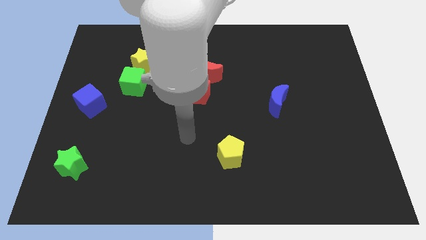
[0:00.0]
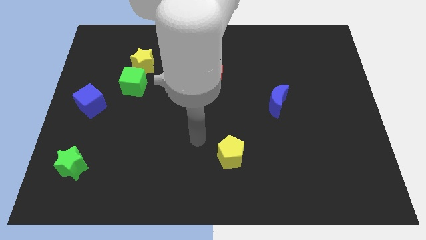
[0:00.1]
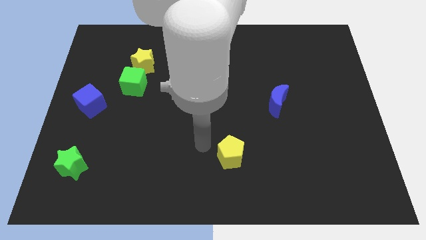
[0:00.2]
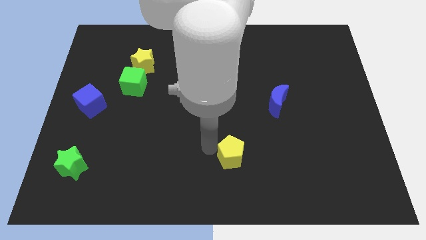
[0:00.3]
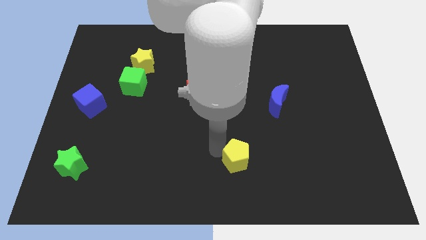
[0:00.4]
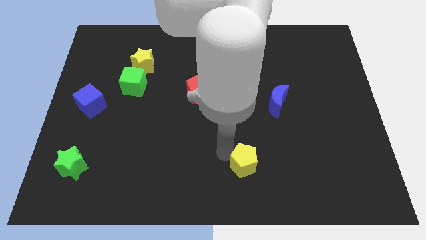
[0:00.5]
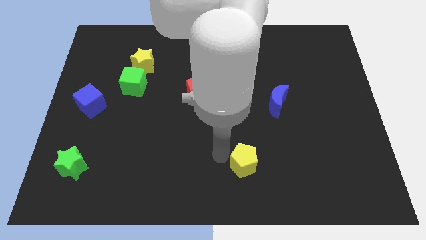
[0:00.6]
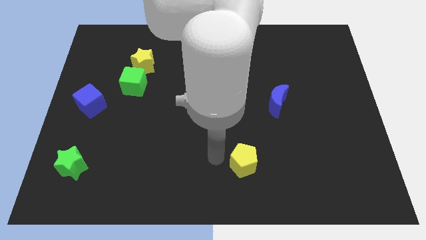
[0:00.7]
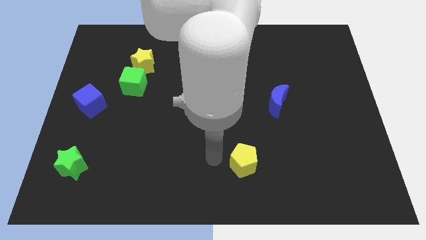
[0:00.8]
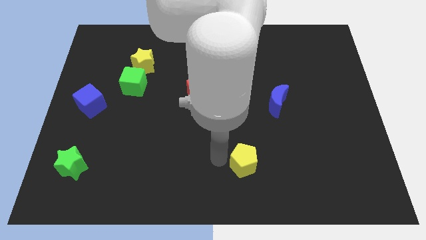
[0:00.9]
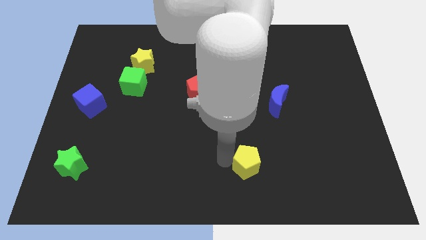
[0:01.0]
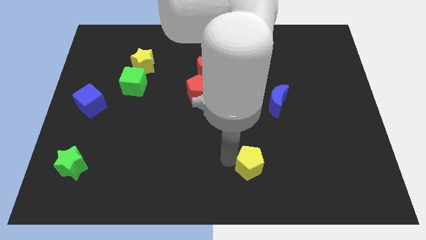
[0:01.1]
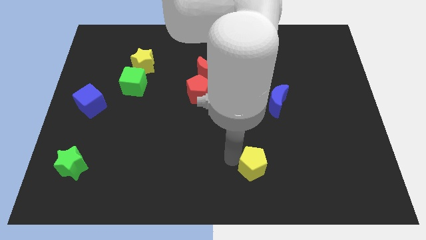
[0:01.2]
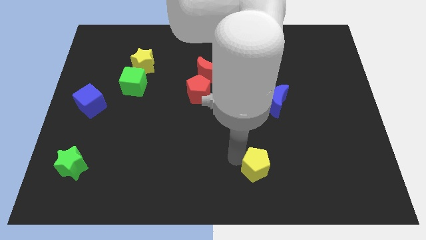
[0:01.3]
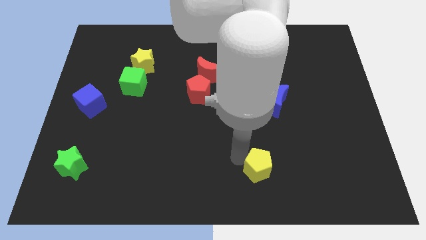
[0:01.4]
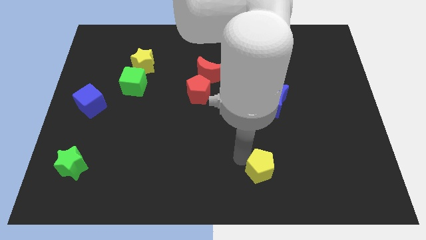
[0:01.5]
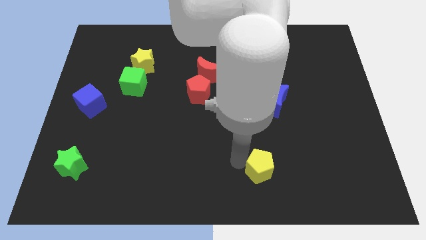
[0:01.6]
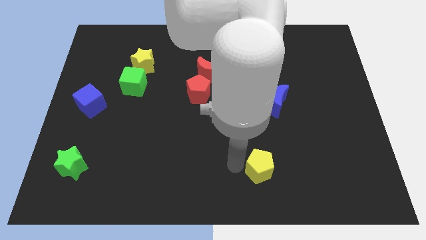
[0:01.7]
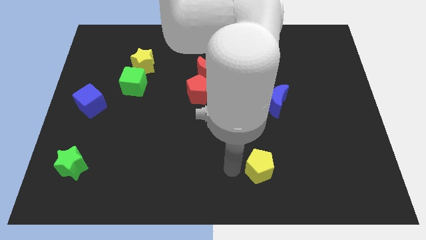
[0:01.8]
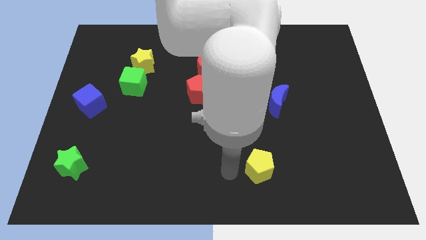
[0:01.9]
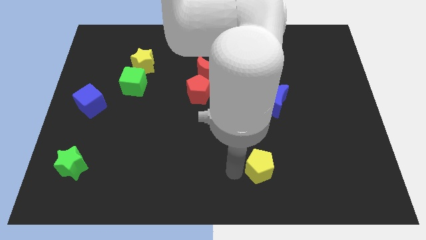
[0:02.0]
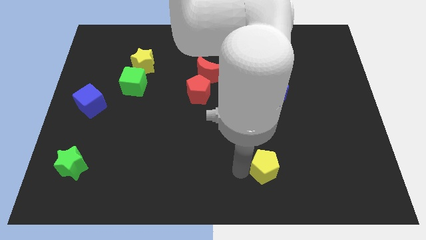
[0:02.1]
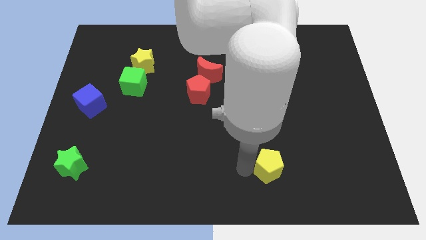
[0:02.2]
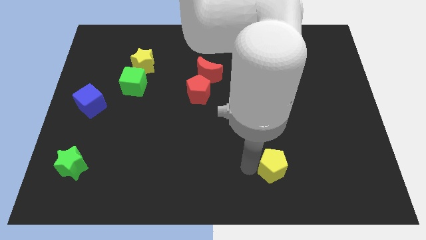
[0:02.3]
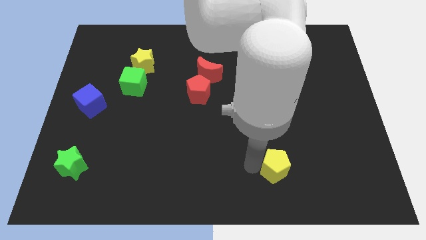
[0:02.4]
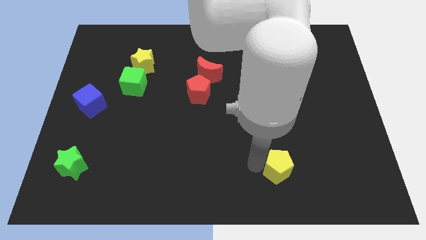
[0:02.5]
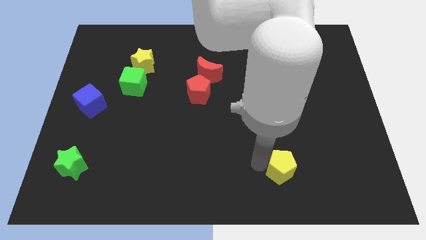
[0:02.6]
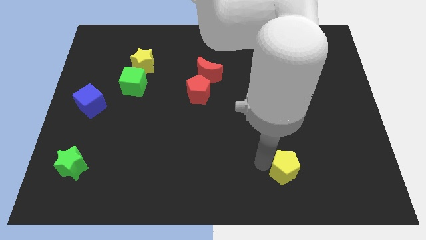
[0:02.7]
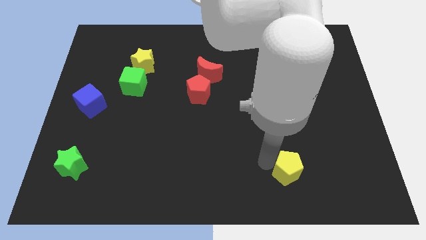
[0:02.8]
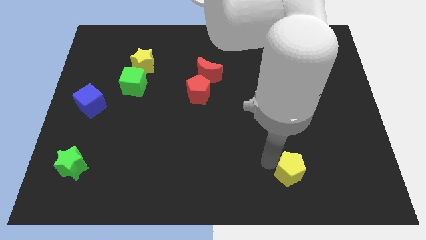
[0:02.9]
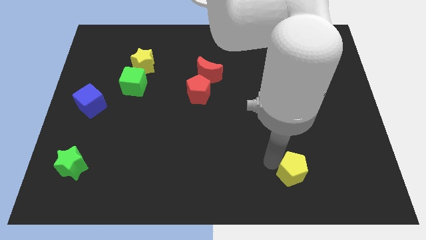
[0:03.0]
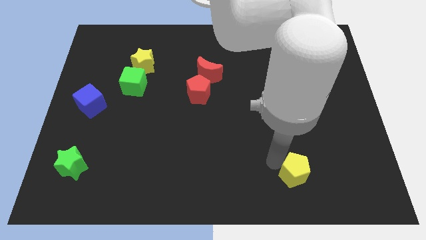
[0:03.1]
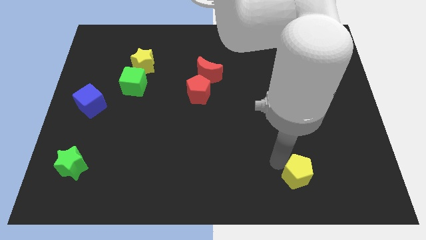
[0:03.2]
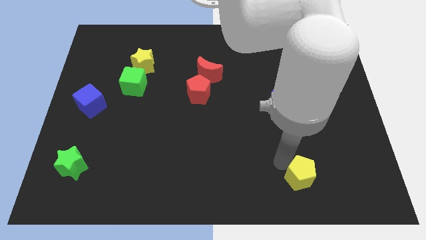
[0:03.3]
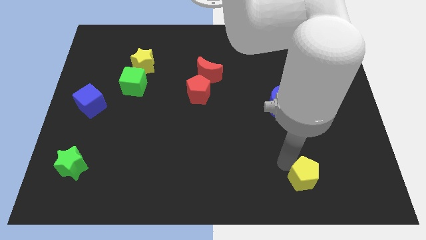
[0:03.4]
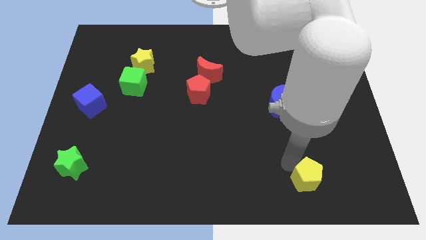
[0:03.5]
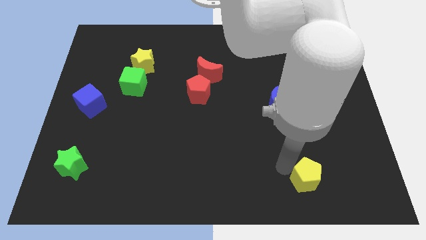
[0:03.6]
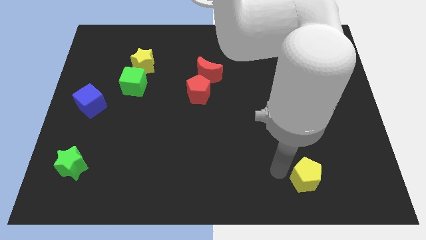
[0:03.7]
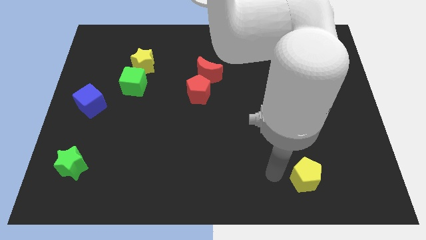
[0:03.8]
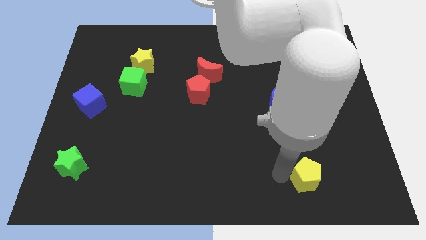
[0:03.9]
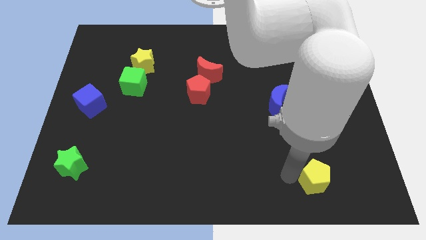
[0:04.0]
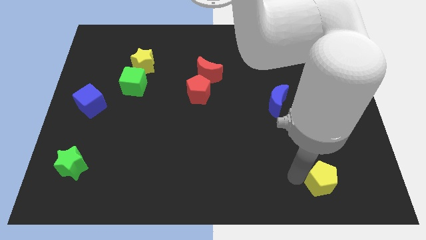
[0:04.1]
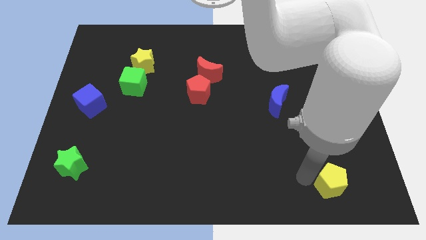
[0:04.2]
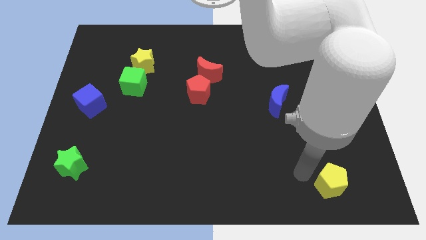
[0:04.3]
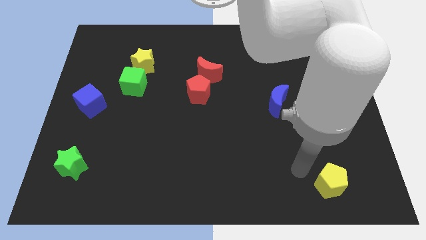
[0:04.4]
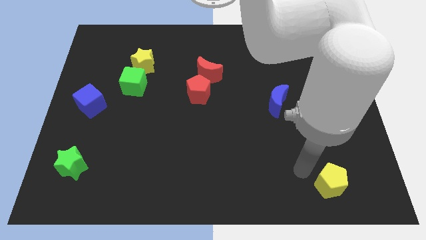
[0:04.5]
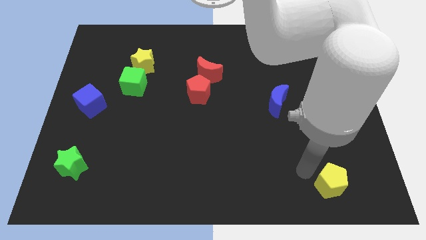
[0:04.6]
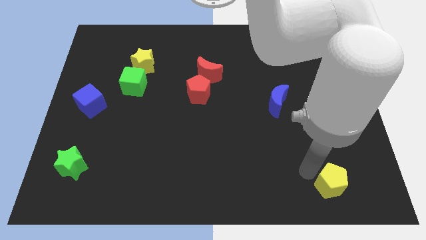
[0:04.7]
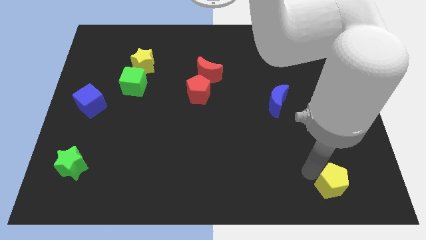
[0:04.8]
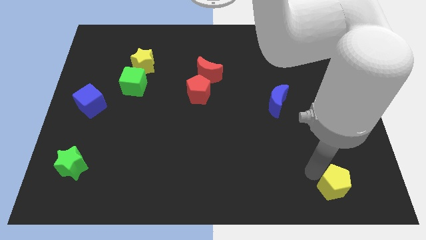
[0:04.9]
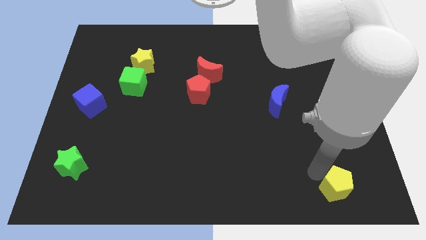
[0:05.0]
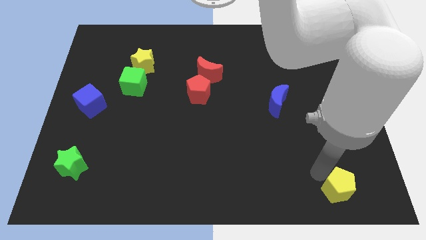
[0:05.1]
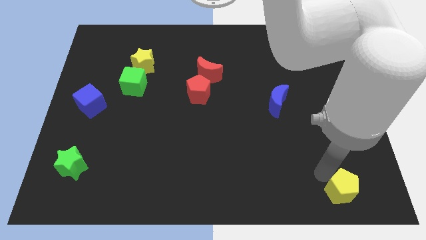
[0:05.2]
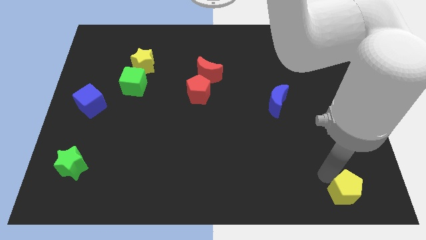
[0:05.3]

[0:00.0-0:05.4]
push the yellow pentagon to the bottom right of the board

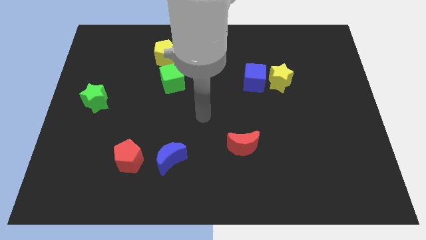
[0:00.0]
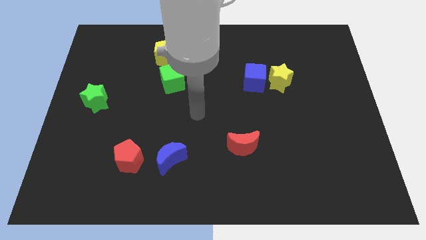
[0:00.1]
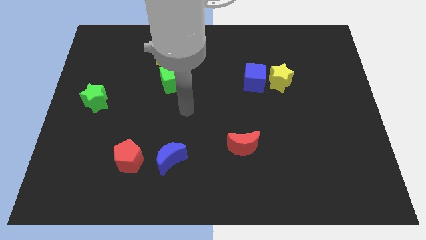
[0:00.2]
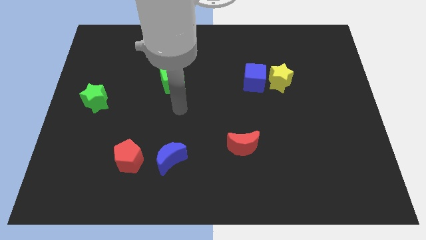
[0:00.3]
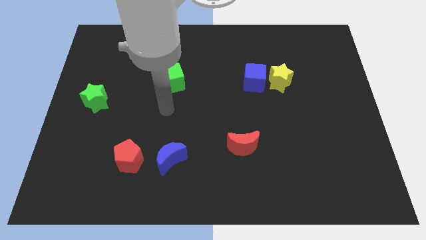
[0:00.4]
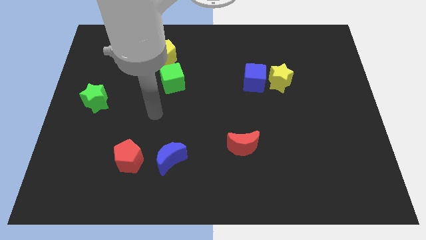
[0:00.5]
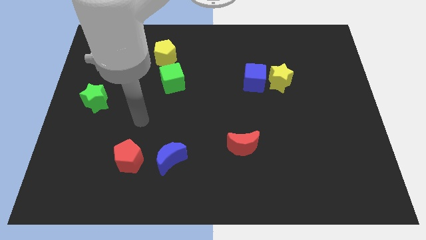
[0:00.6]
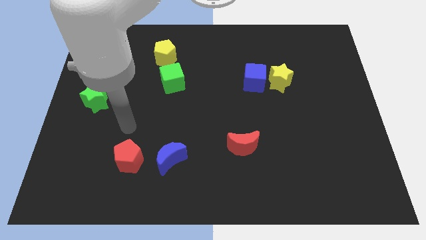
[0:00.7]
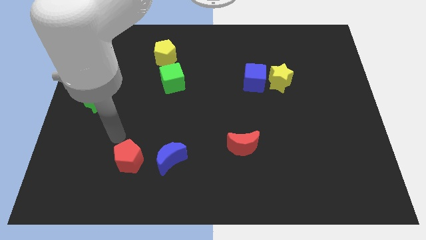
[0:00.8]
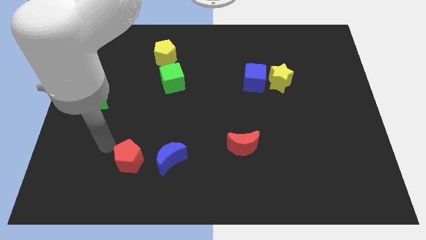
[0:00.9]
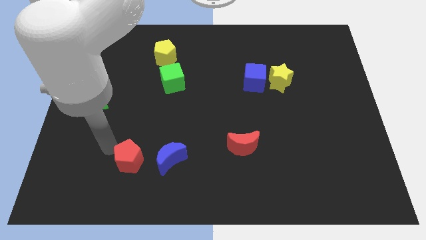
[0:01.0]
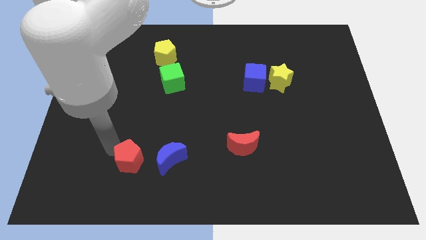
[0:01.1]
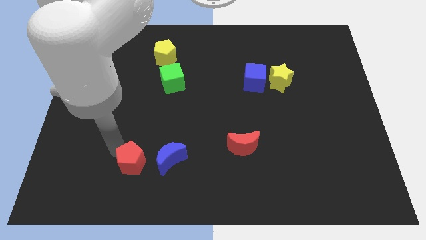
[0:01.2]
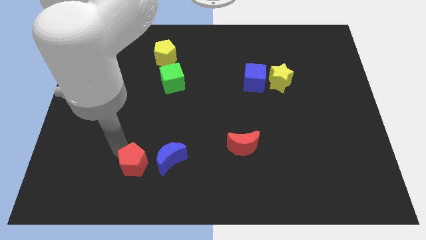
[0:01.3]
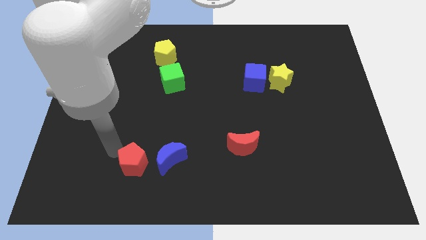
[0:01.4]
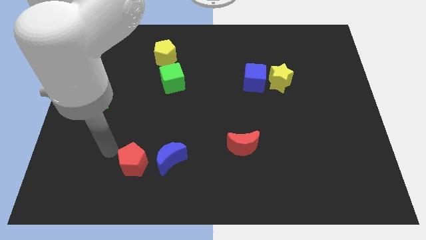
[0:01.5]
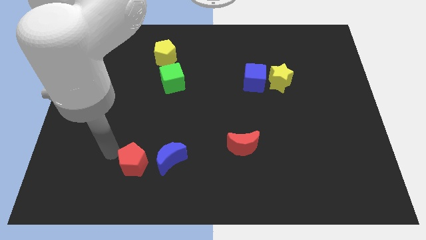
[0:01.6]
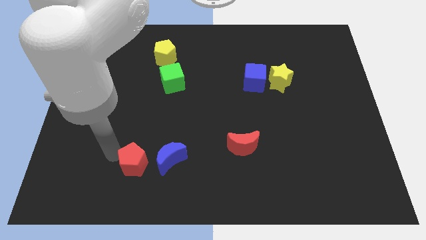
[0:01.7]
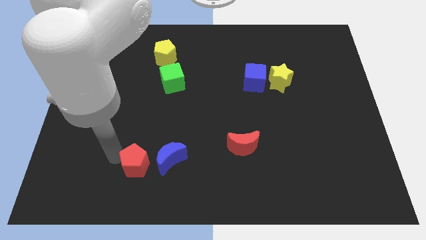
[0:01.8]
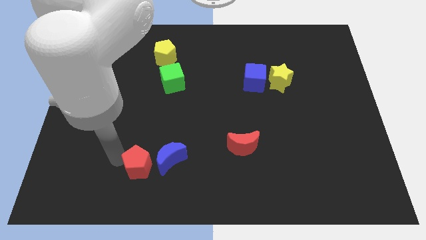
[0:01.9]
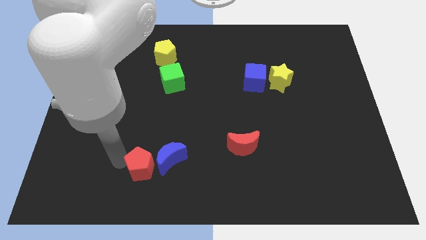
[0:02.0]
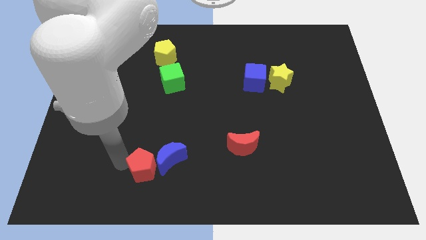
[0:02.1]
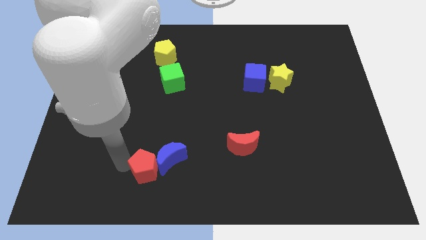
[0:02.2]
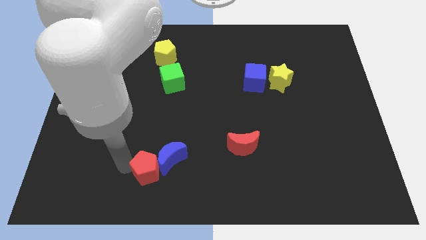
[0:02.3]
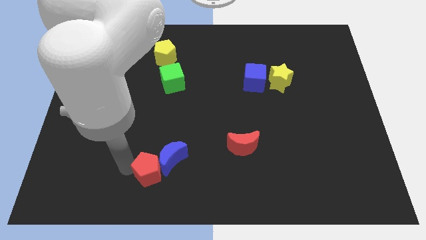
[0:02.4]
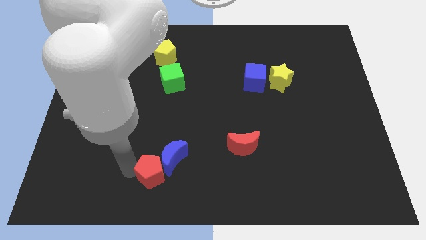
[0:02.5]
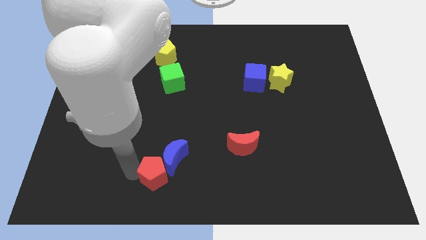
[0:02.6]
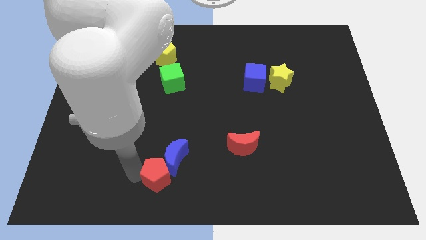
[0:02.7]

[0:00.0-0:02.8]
put the red pentagon to the bottom
